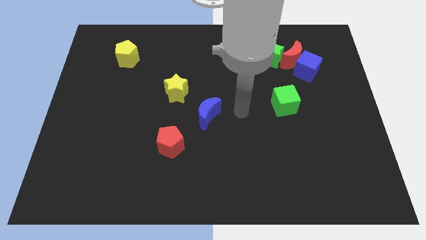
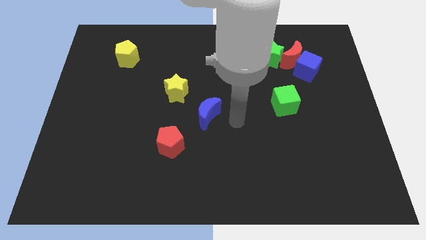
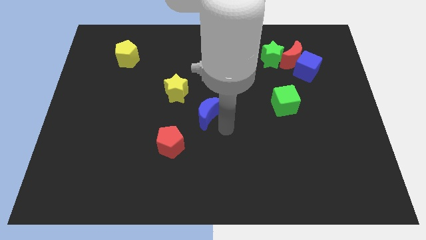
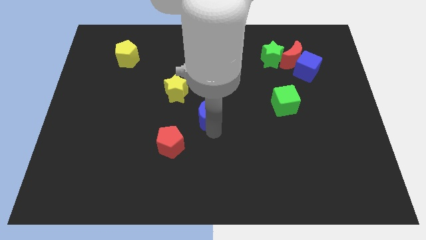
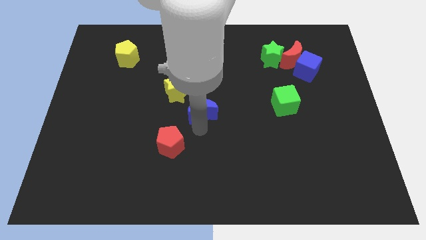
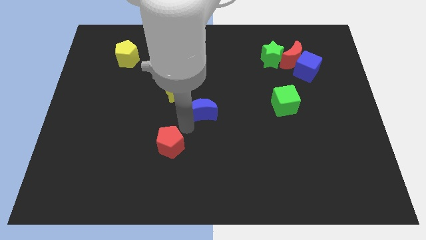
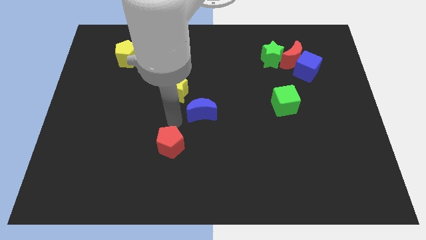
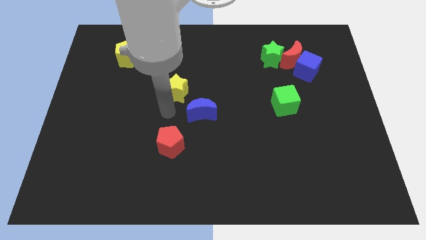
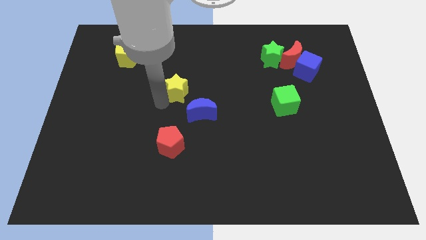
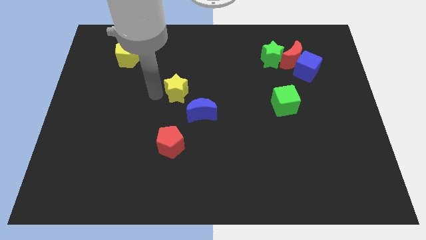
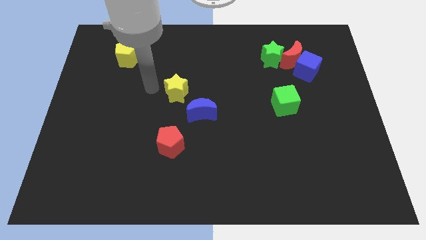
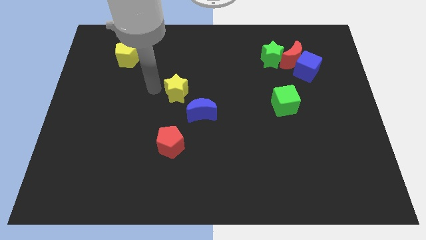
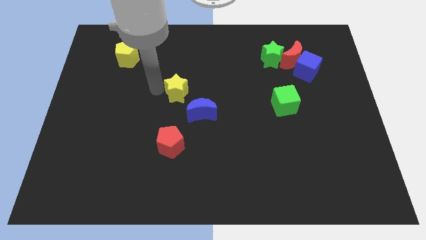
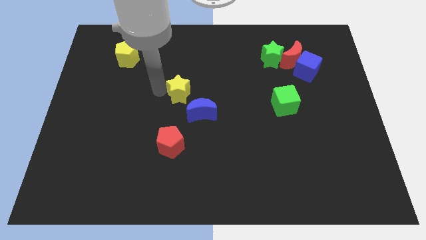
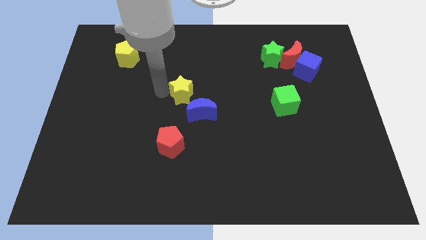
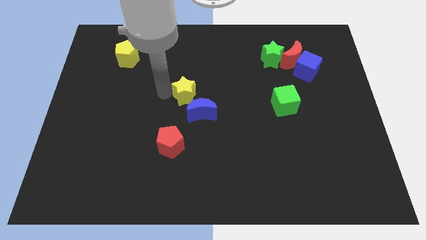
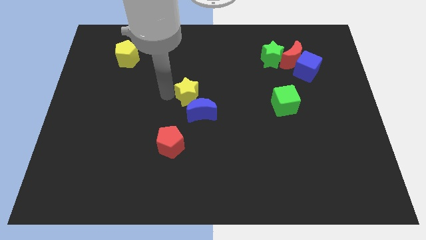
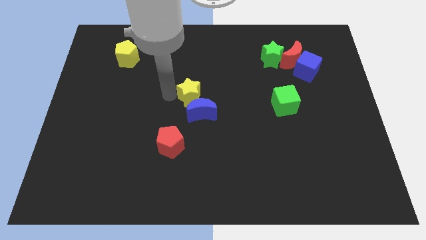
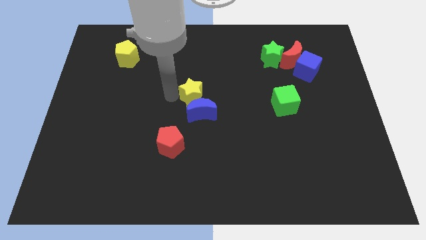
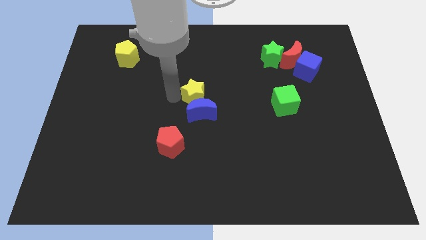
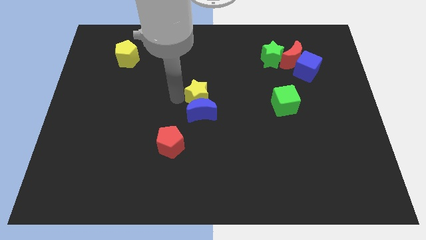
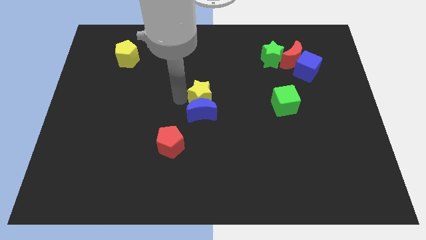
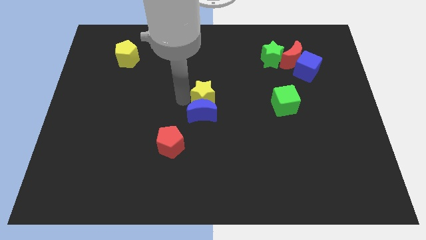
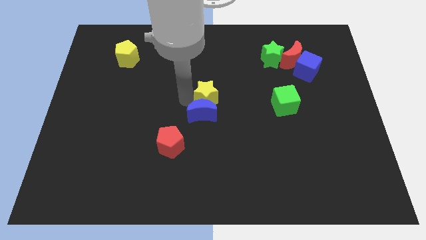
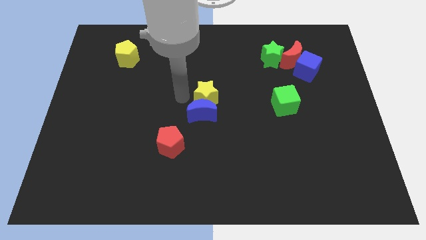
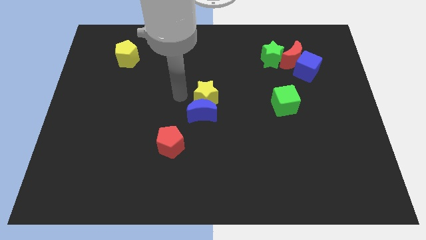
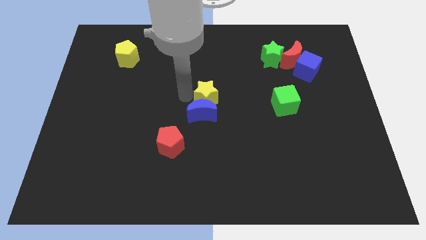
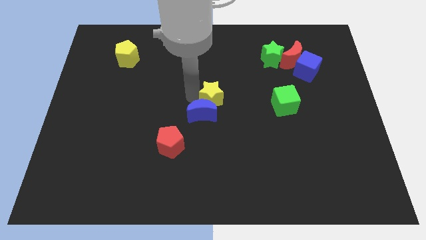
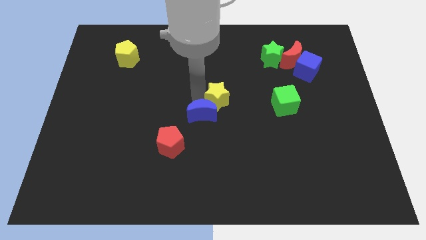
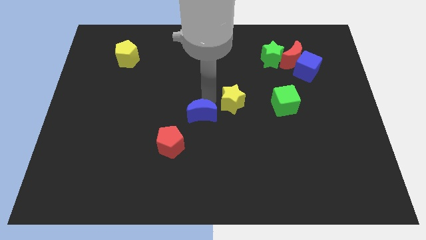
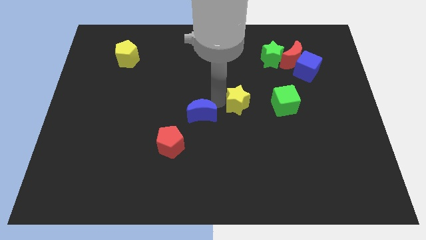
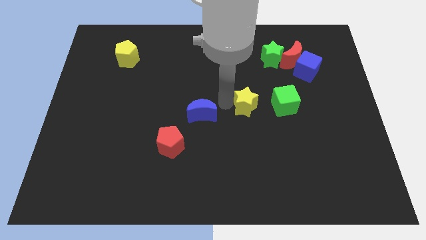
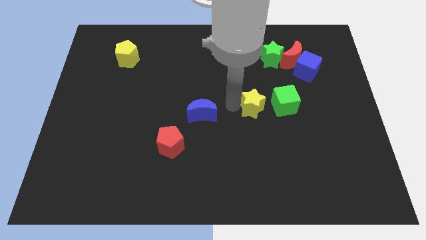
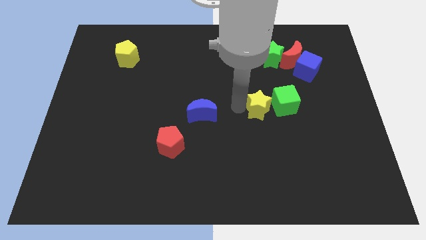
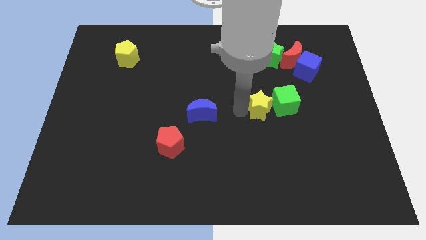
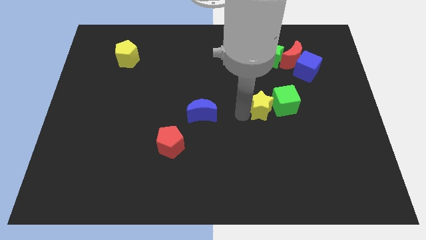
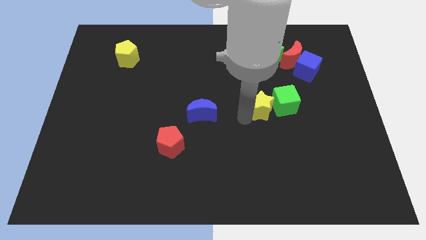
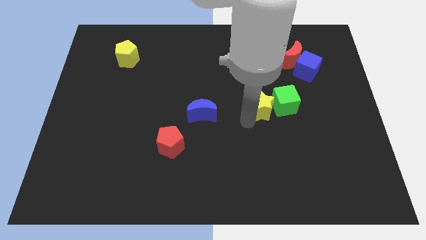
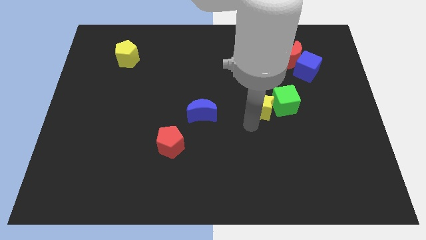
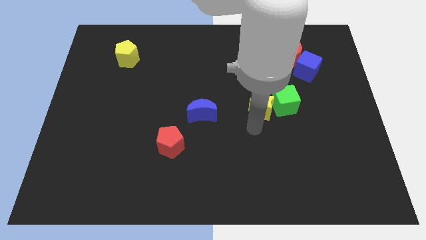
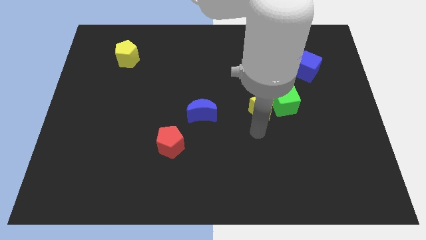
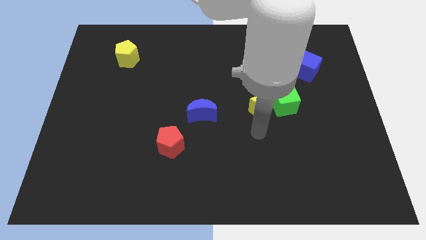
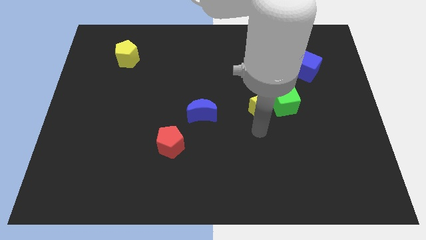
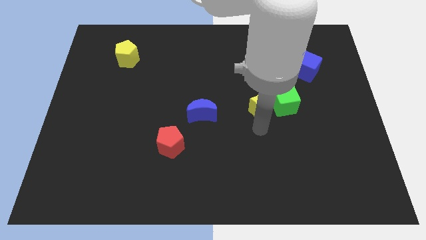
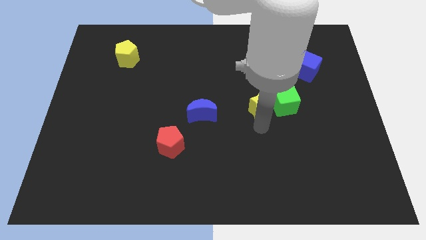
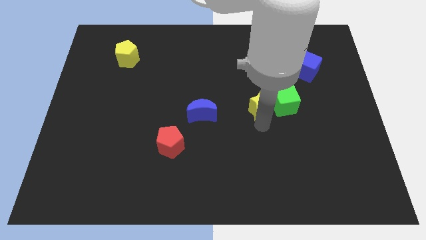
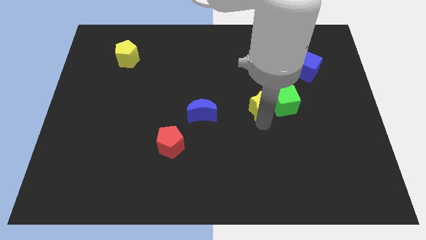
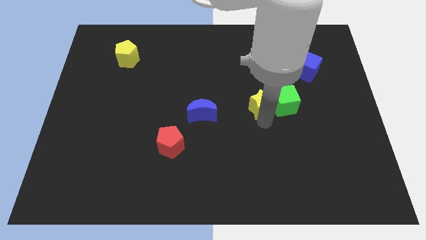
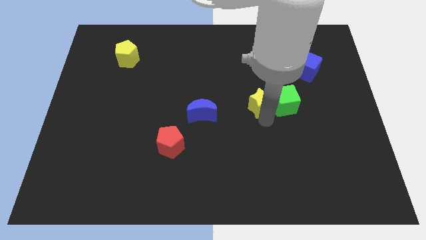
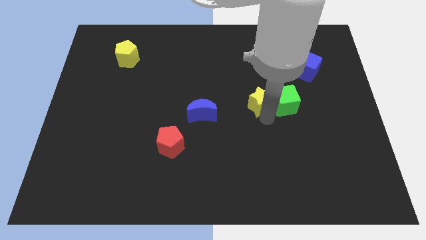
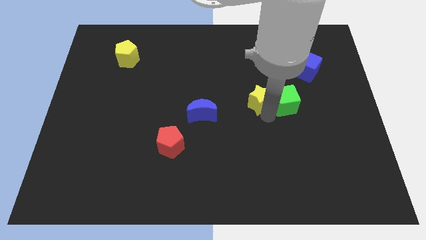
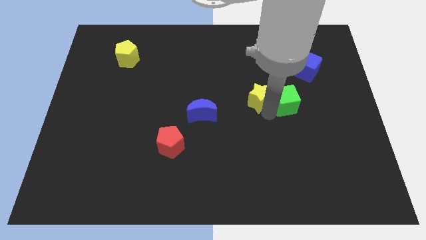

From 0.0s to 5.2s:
move the yellow star to the bottom side of the green star

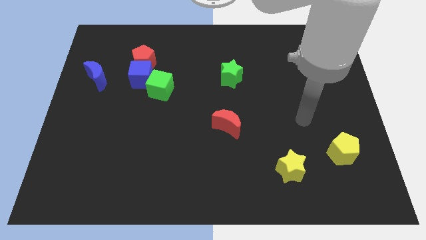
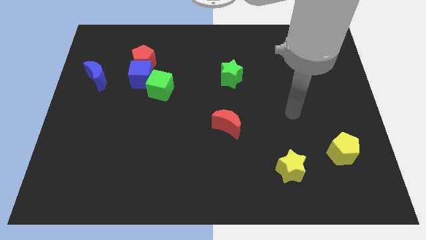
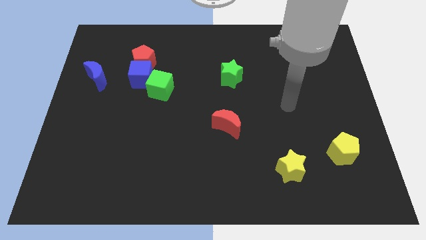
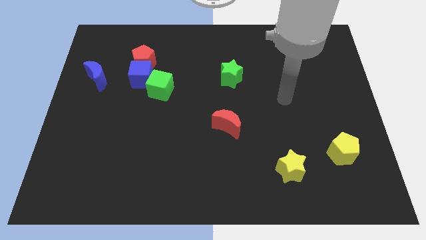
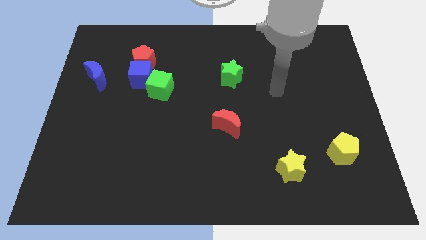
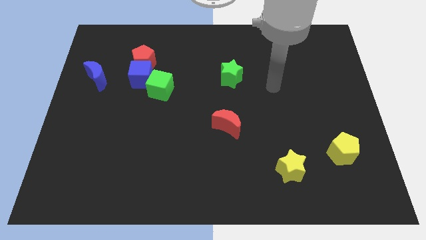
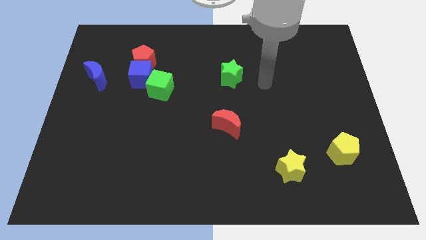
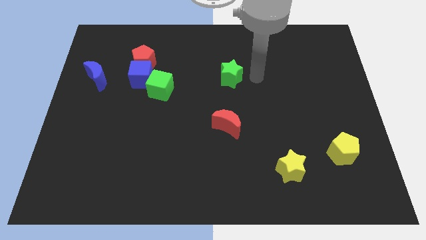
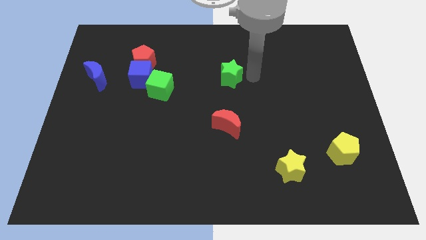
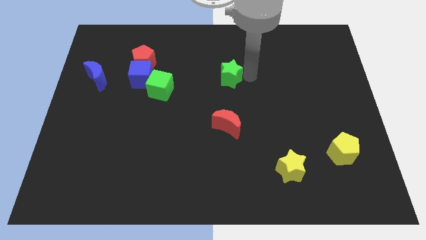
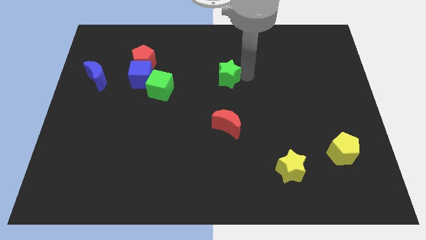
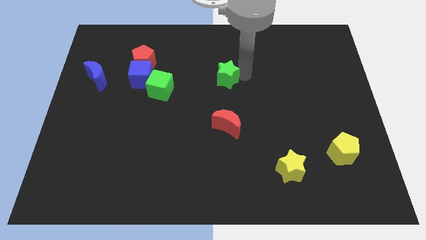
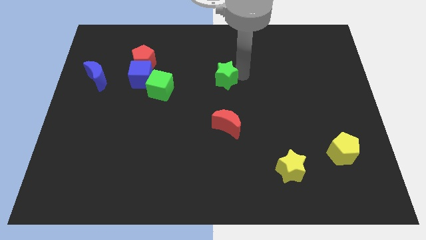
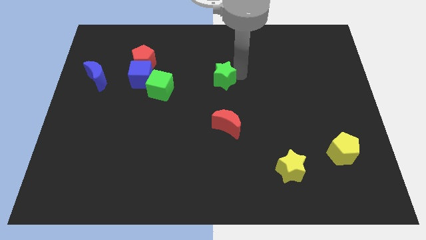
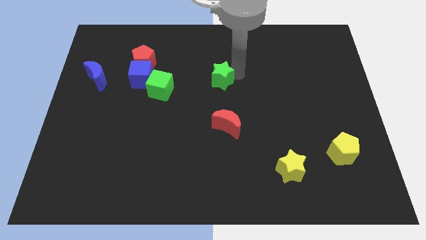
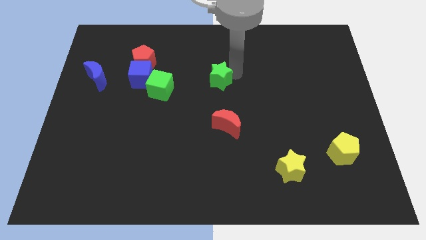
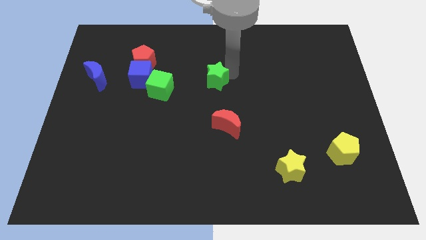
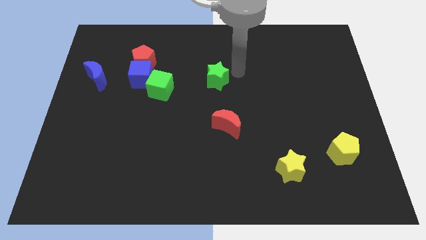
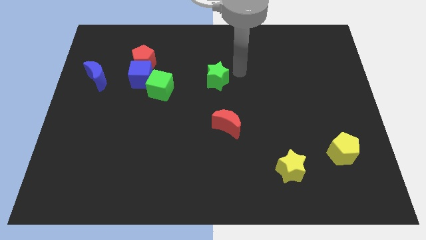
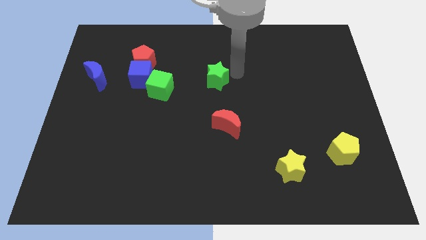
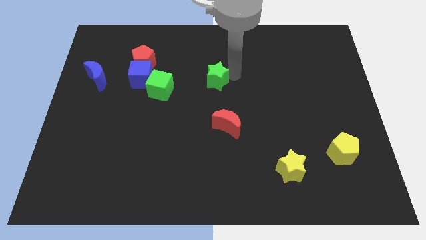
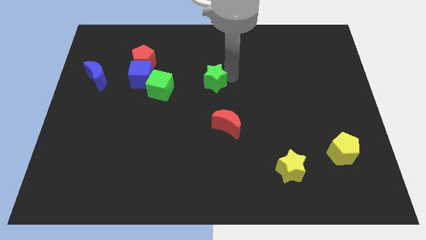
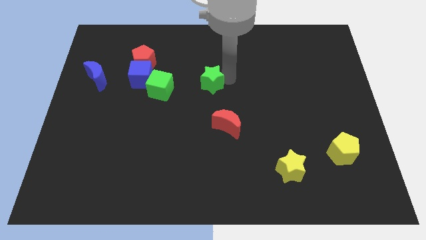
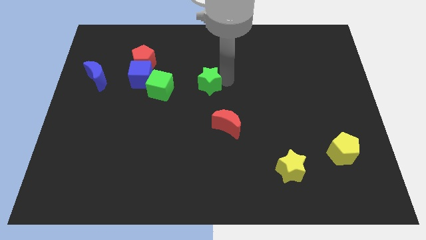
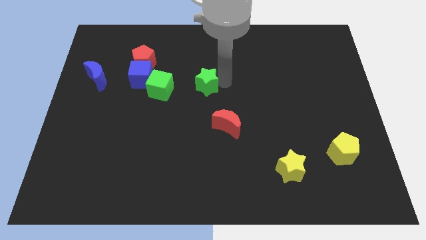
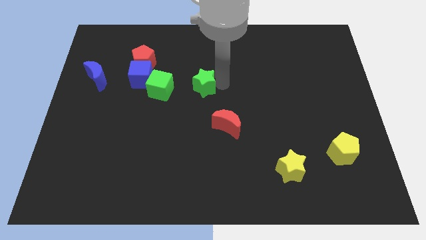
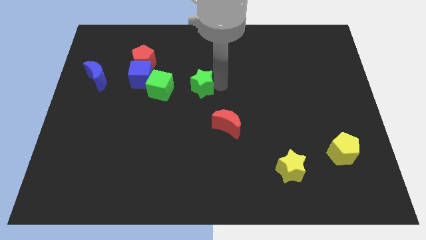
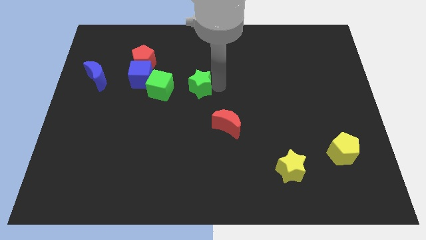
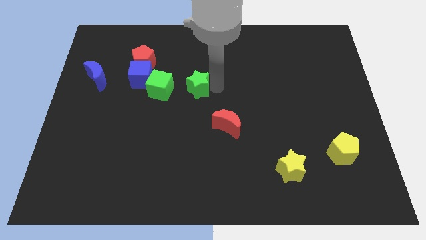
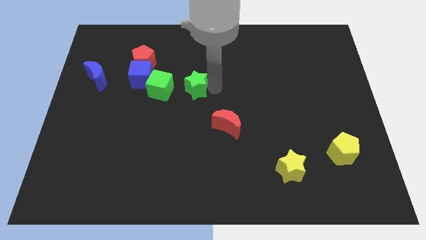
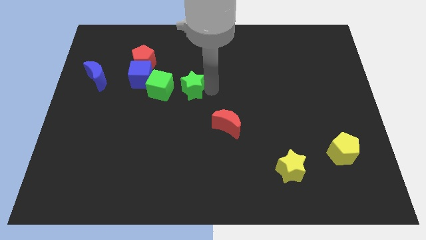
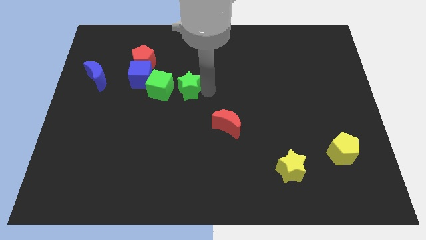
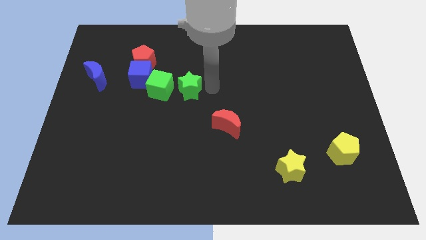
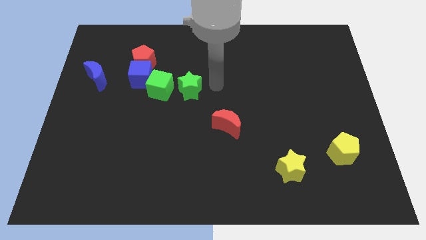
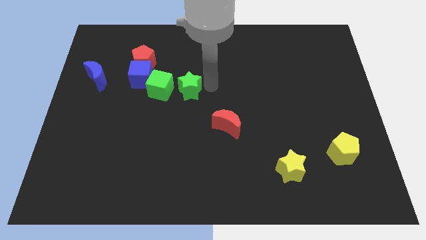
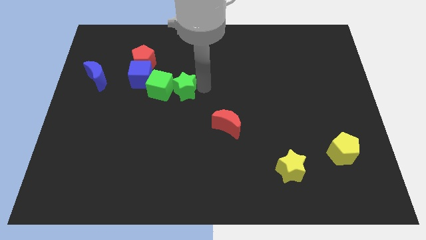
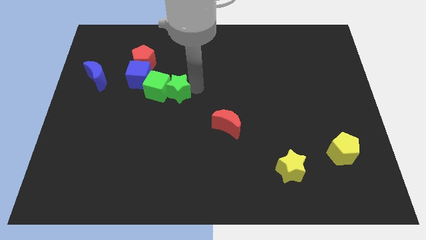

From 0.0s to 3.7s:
move the green star diagonally down and to the right of the blue cube
